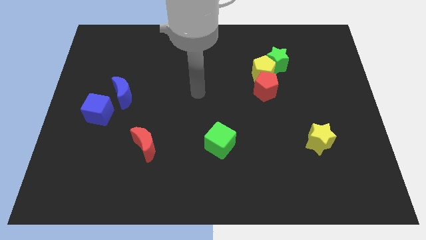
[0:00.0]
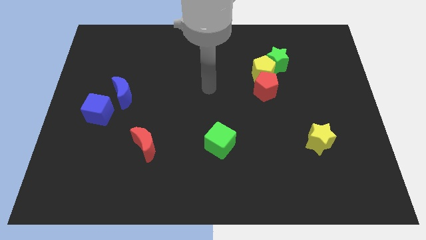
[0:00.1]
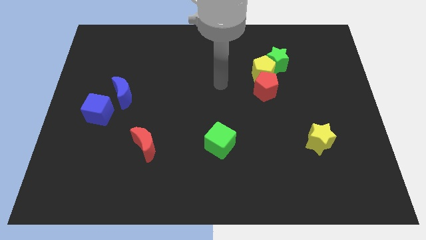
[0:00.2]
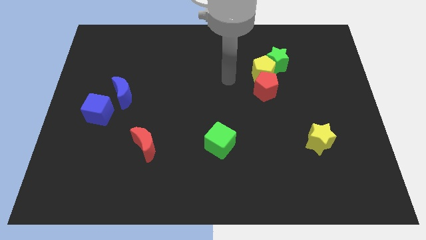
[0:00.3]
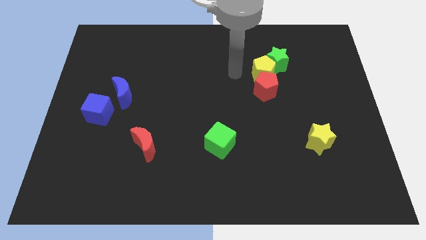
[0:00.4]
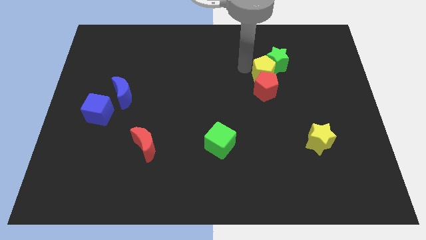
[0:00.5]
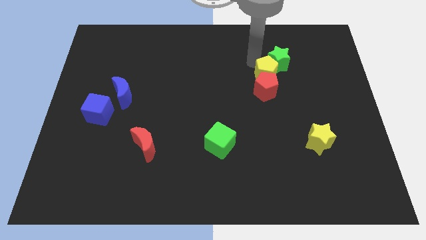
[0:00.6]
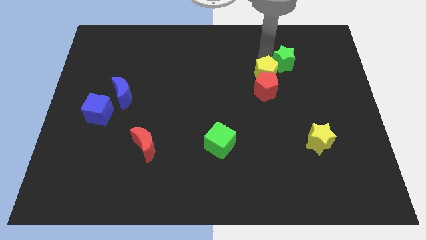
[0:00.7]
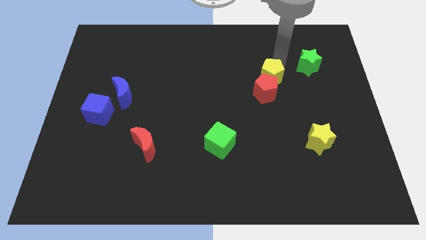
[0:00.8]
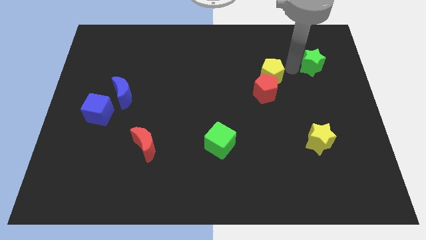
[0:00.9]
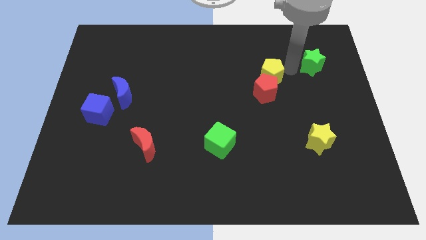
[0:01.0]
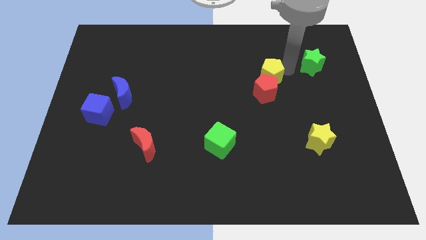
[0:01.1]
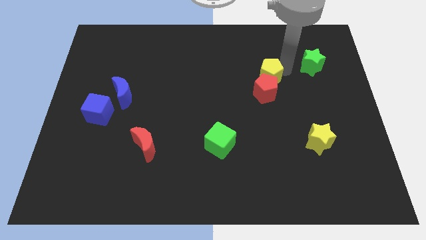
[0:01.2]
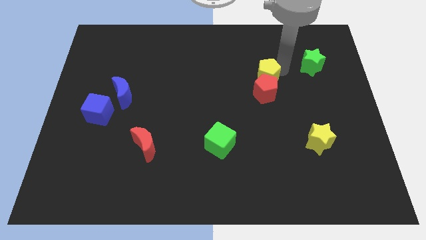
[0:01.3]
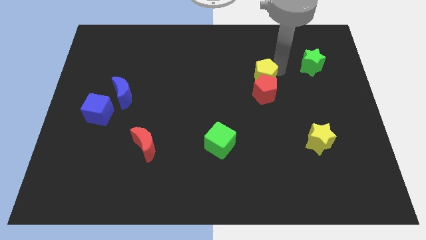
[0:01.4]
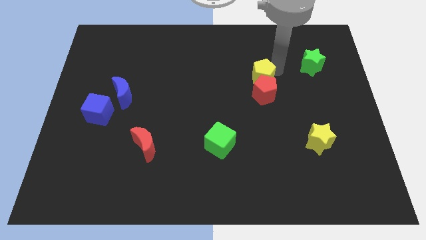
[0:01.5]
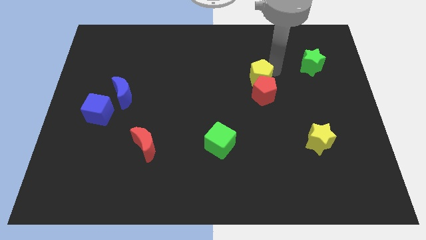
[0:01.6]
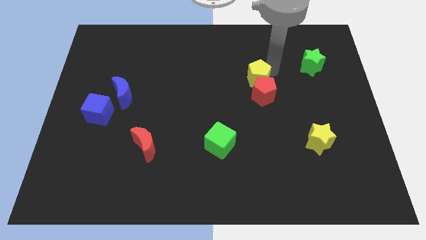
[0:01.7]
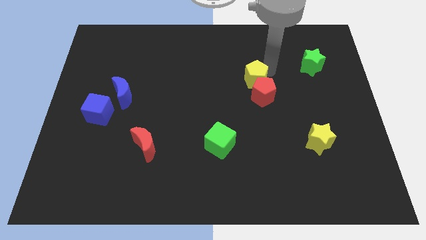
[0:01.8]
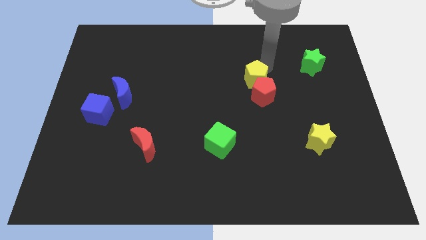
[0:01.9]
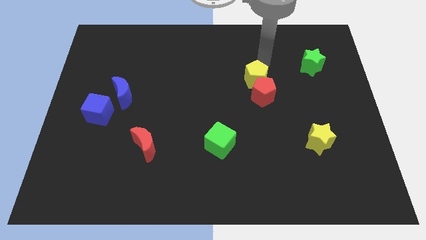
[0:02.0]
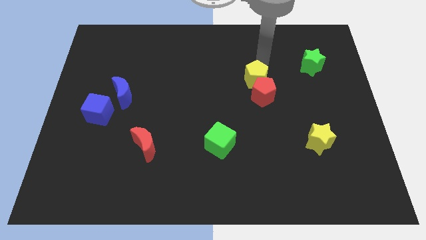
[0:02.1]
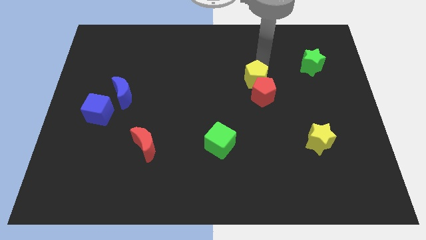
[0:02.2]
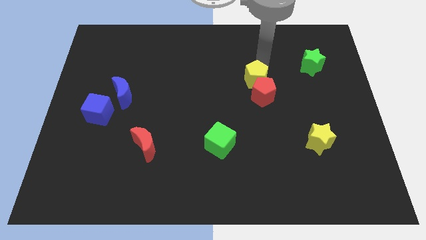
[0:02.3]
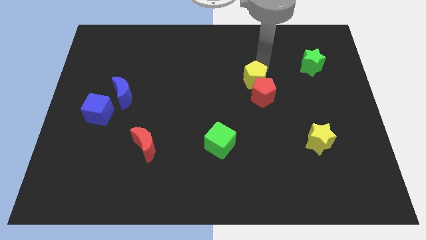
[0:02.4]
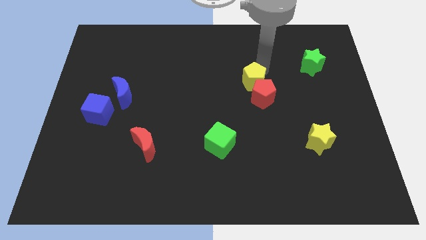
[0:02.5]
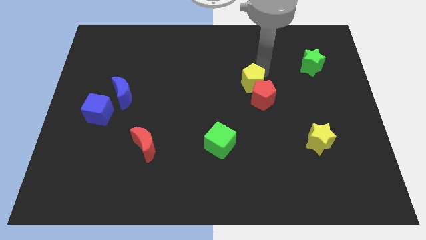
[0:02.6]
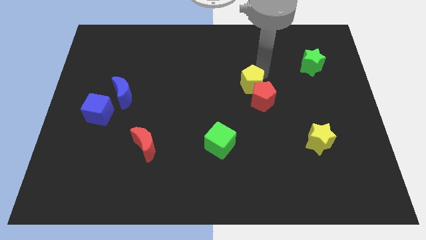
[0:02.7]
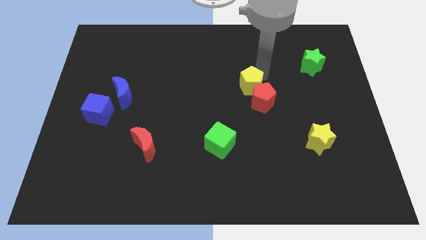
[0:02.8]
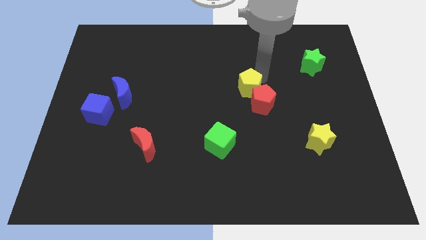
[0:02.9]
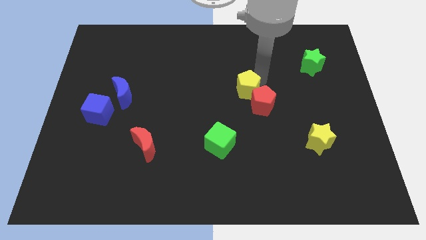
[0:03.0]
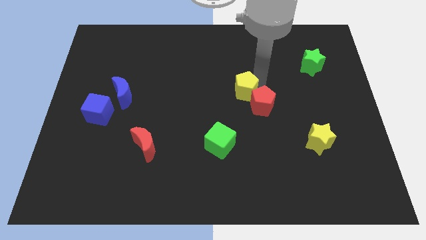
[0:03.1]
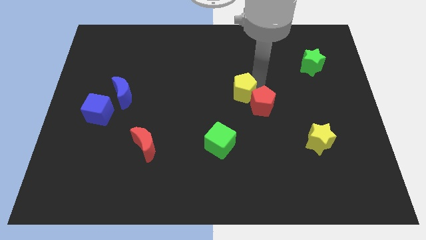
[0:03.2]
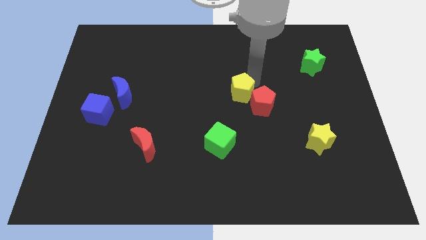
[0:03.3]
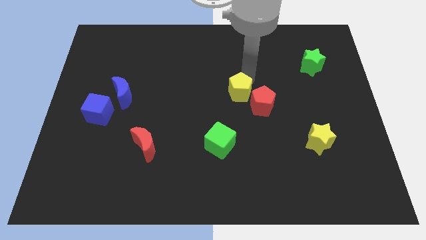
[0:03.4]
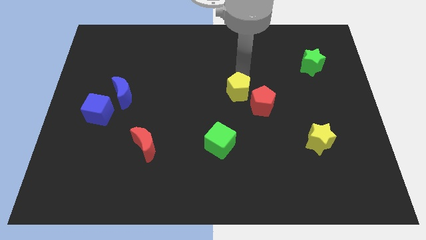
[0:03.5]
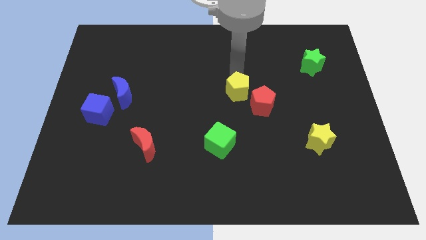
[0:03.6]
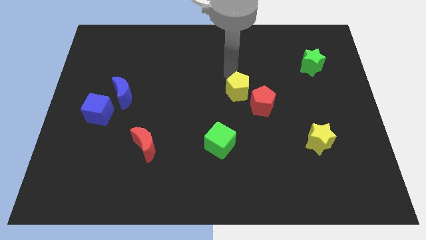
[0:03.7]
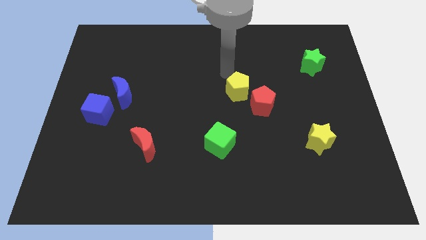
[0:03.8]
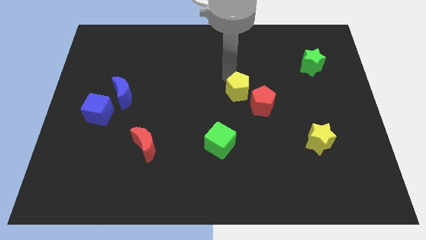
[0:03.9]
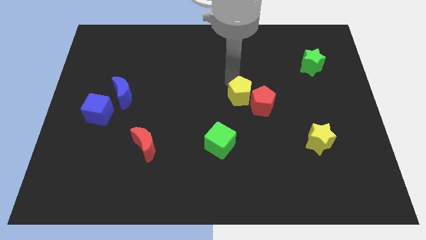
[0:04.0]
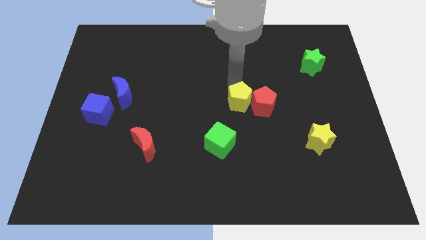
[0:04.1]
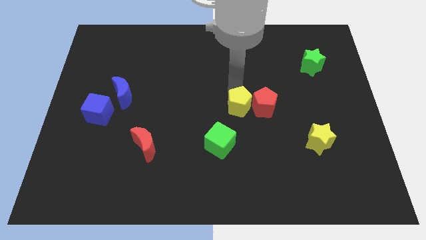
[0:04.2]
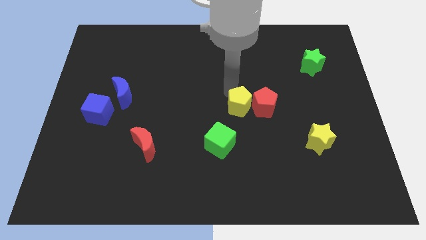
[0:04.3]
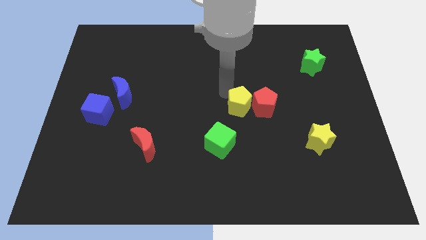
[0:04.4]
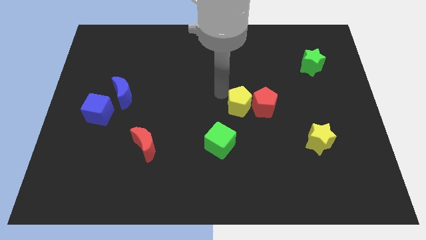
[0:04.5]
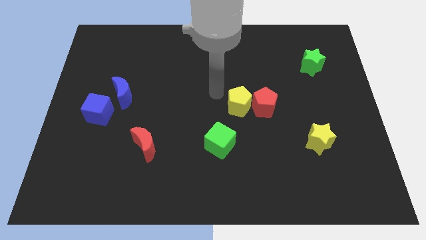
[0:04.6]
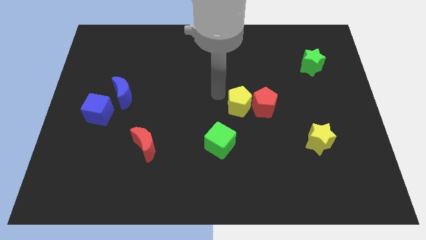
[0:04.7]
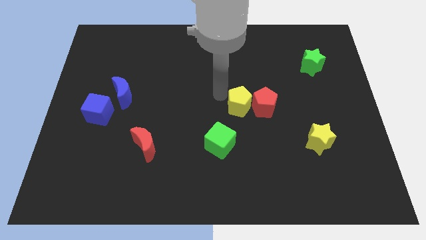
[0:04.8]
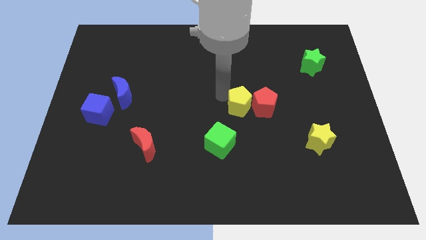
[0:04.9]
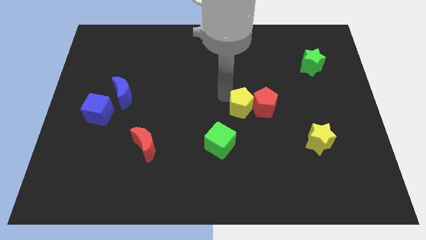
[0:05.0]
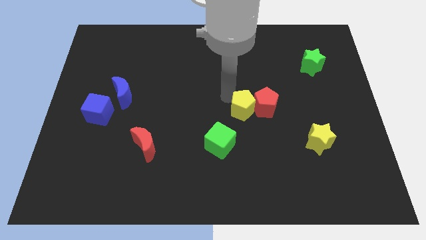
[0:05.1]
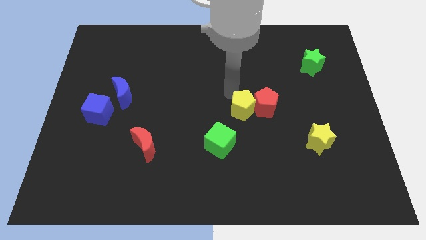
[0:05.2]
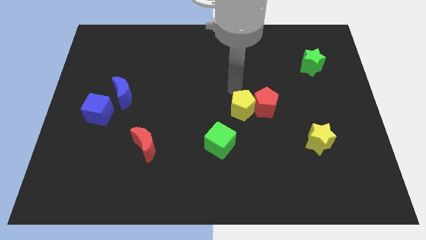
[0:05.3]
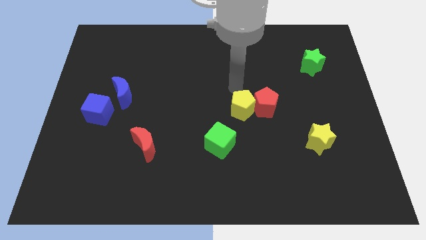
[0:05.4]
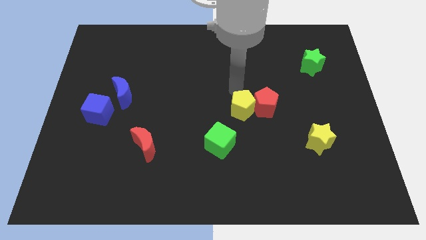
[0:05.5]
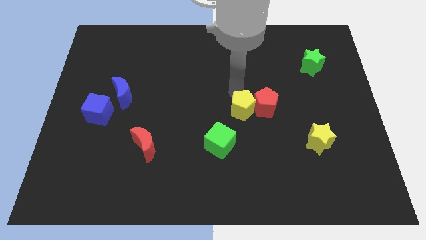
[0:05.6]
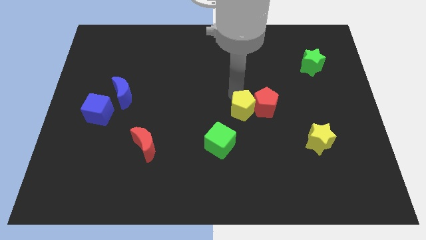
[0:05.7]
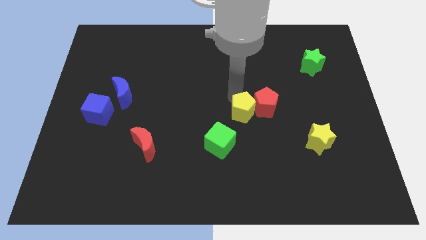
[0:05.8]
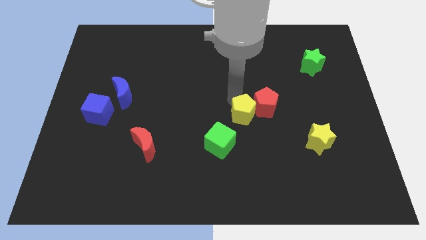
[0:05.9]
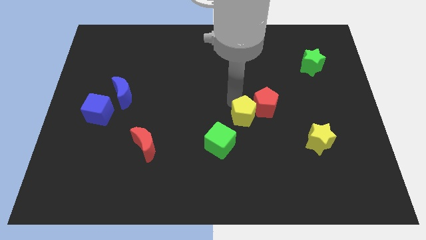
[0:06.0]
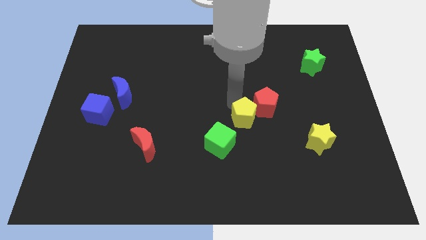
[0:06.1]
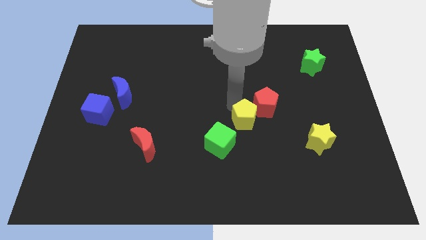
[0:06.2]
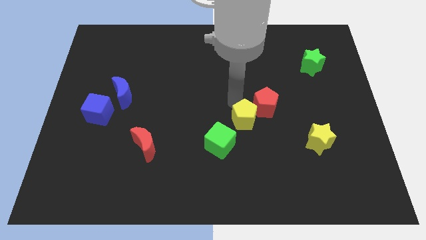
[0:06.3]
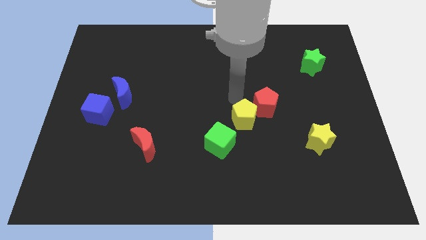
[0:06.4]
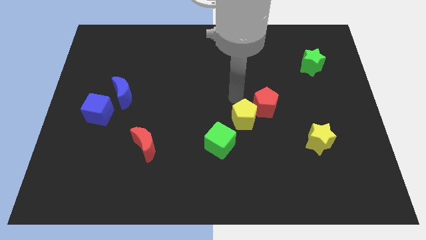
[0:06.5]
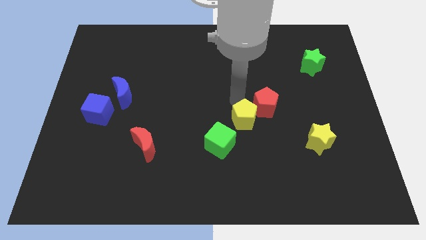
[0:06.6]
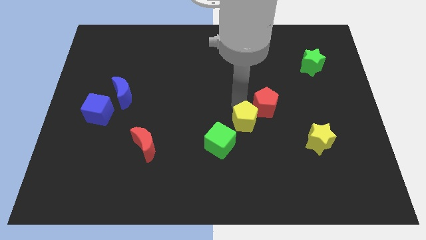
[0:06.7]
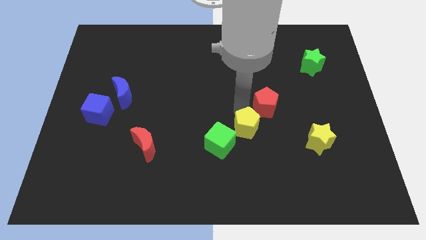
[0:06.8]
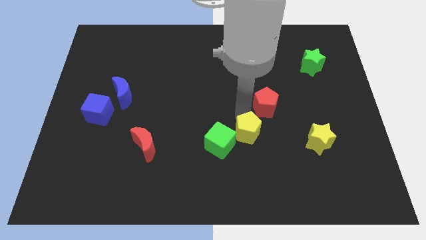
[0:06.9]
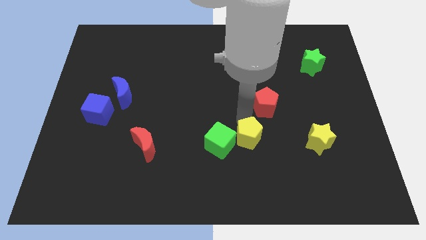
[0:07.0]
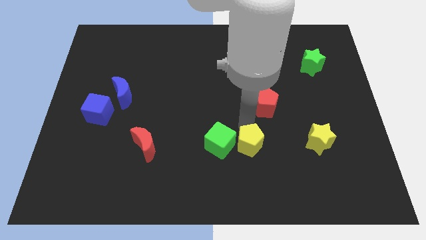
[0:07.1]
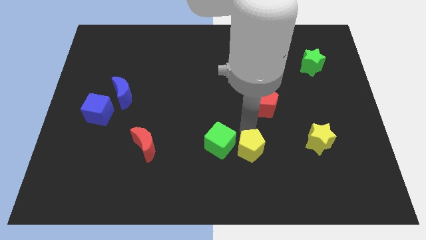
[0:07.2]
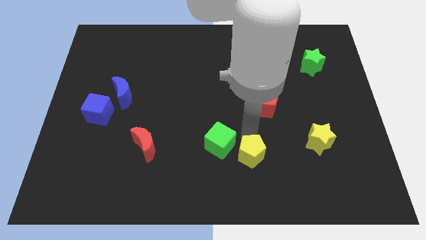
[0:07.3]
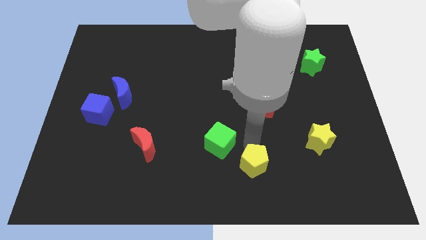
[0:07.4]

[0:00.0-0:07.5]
put the yellow pentagon to the bottom
